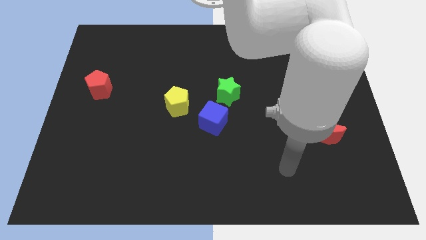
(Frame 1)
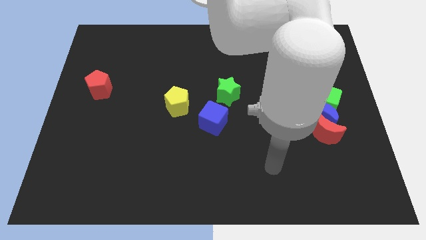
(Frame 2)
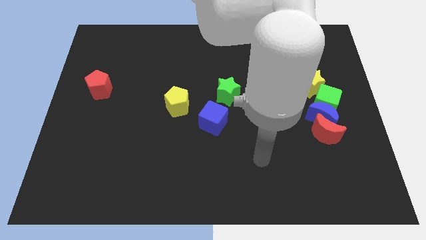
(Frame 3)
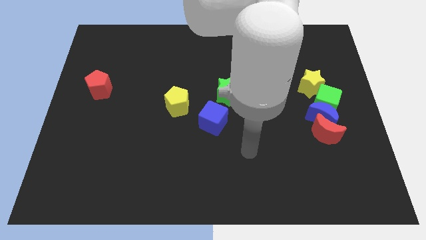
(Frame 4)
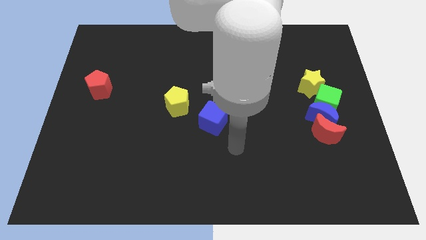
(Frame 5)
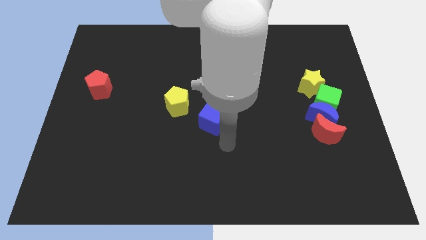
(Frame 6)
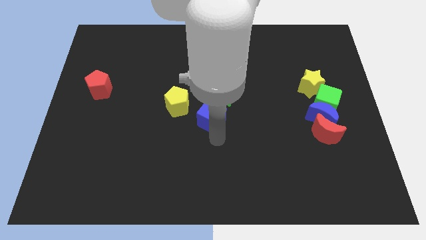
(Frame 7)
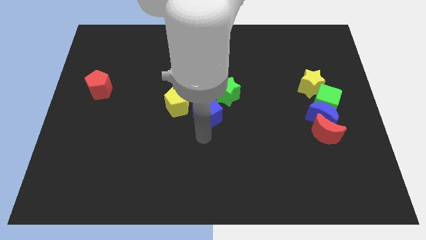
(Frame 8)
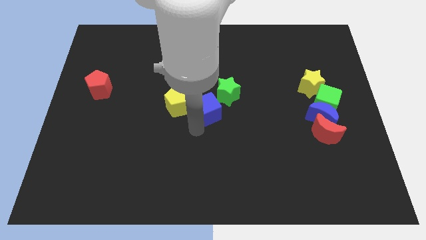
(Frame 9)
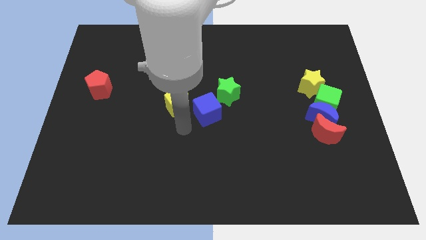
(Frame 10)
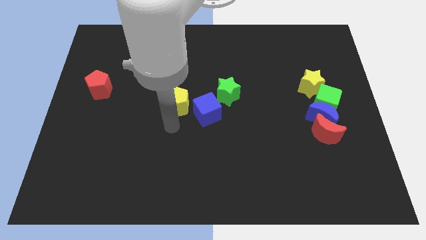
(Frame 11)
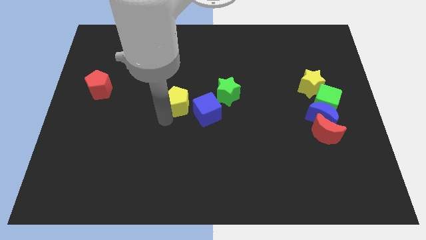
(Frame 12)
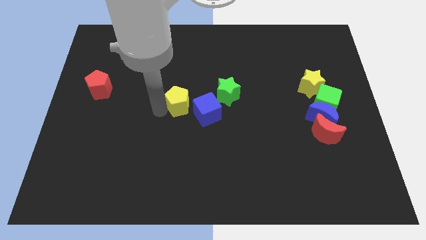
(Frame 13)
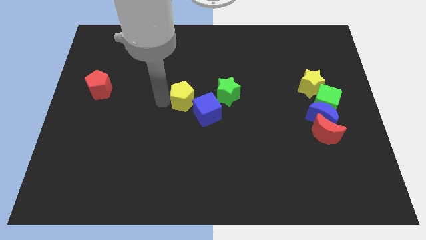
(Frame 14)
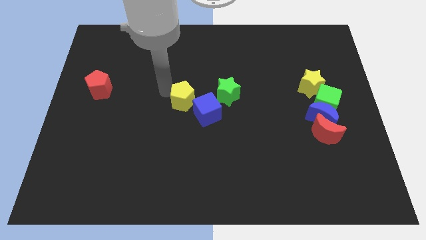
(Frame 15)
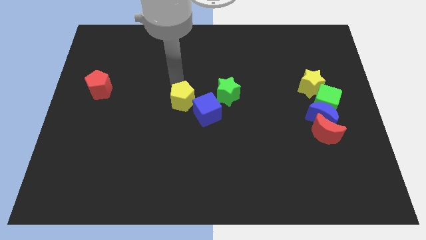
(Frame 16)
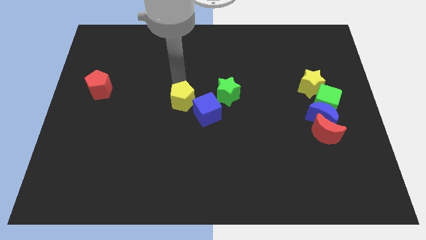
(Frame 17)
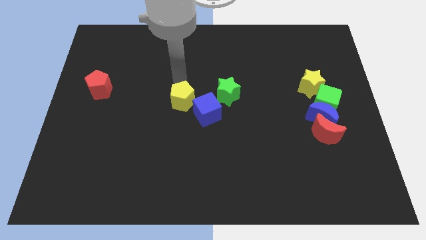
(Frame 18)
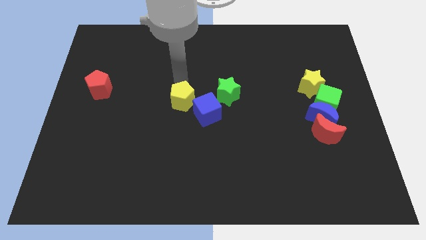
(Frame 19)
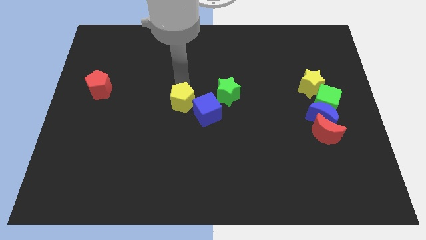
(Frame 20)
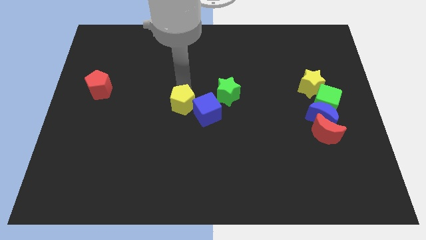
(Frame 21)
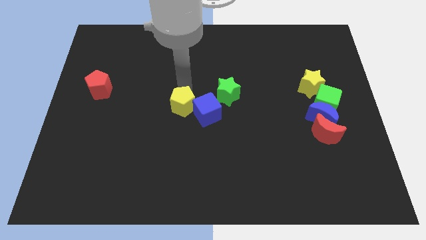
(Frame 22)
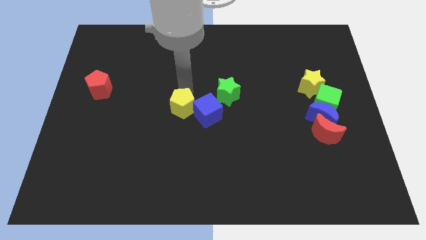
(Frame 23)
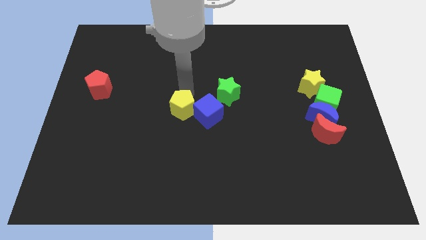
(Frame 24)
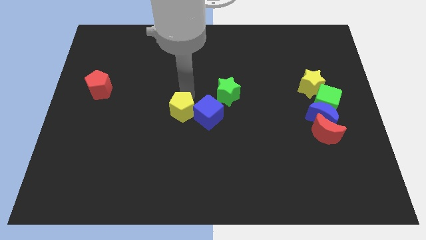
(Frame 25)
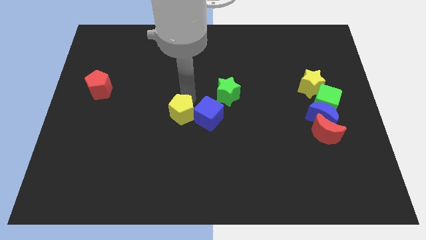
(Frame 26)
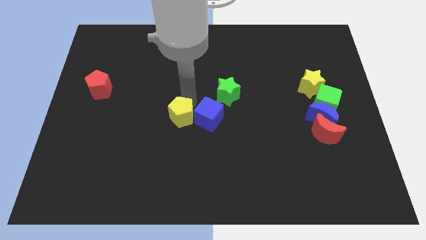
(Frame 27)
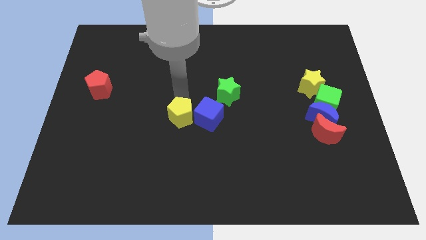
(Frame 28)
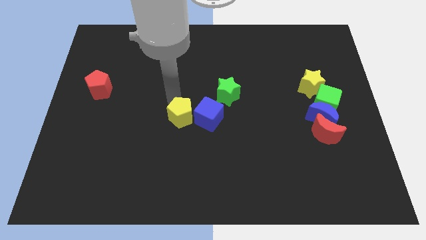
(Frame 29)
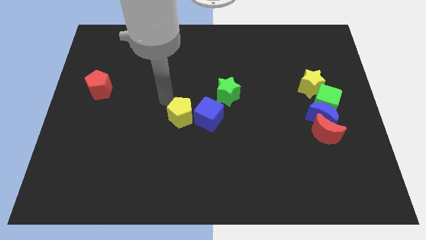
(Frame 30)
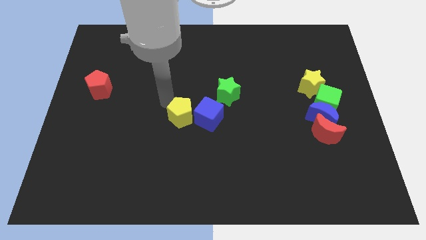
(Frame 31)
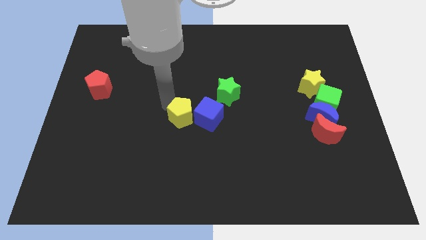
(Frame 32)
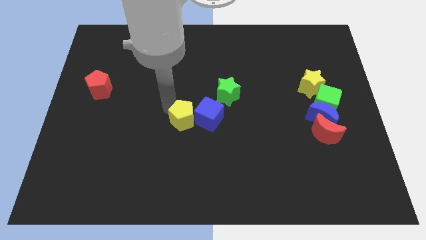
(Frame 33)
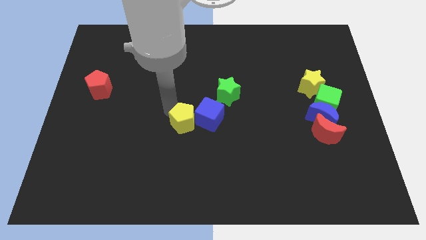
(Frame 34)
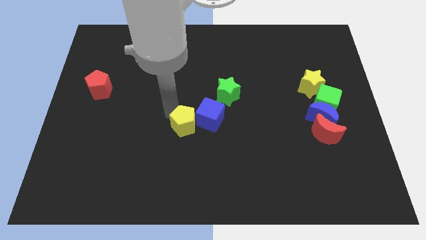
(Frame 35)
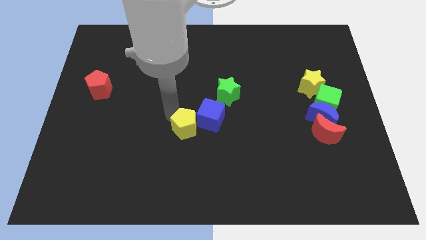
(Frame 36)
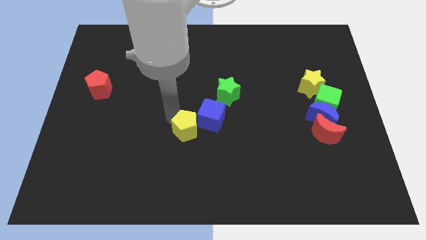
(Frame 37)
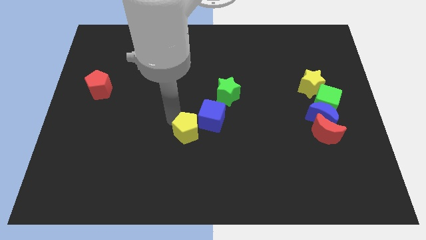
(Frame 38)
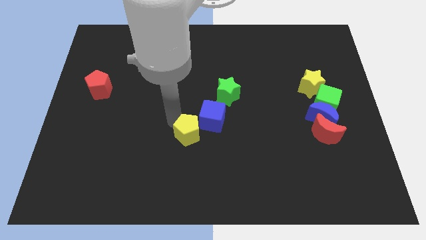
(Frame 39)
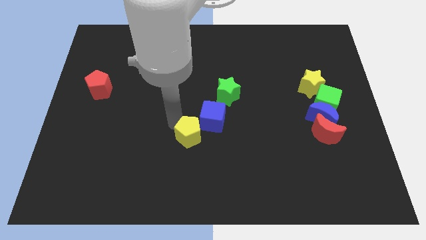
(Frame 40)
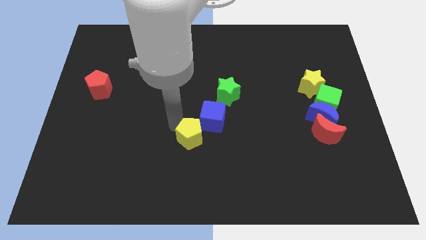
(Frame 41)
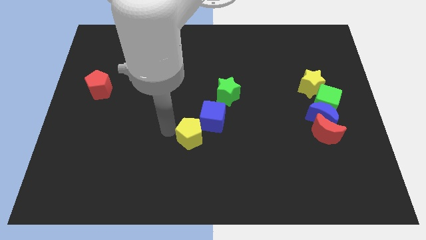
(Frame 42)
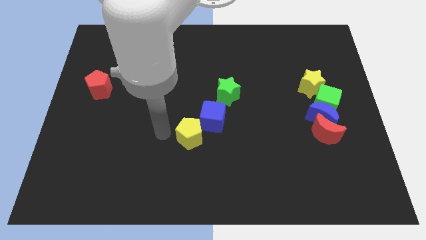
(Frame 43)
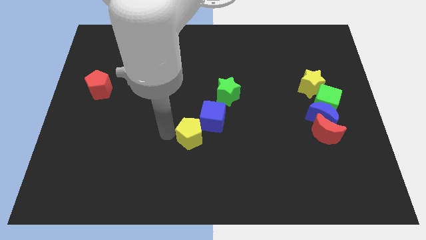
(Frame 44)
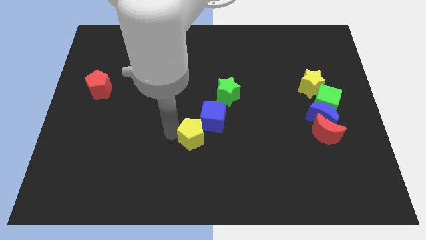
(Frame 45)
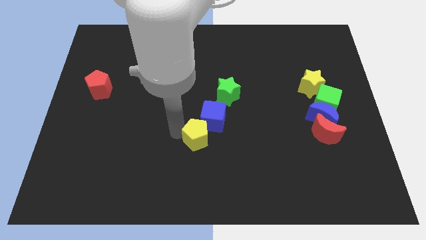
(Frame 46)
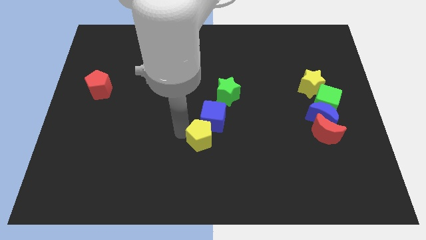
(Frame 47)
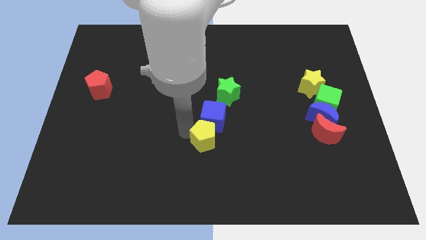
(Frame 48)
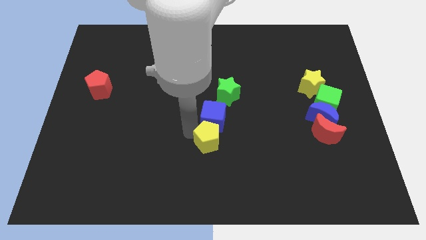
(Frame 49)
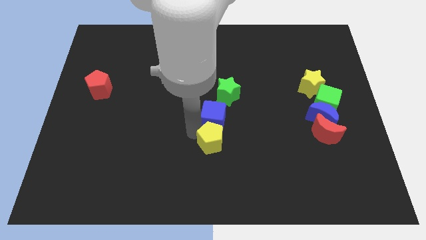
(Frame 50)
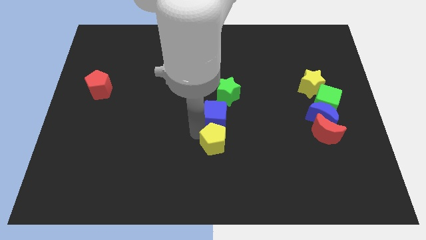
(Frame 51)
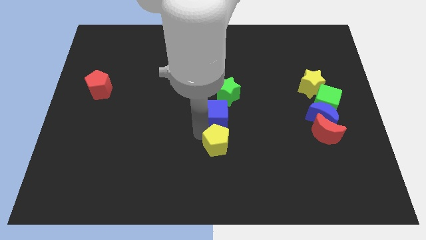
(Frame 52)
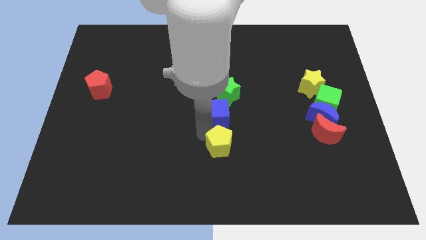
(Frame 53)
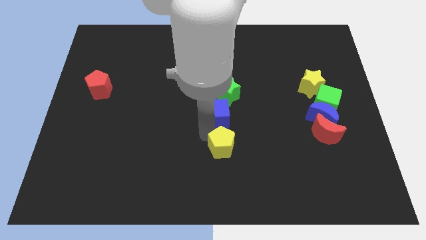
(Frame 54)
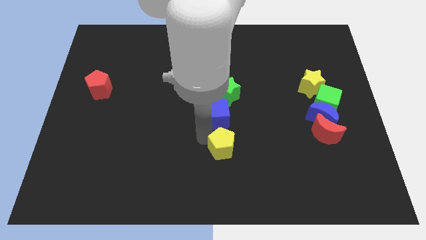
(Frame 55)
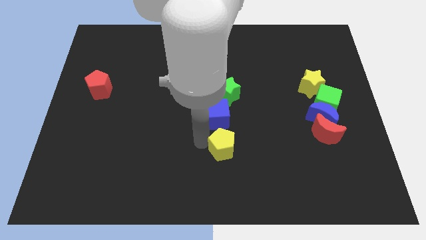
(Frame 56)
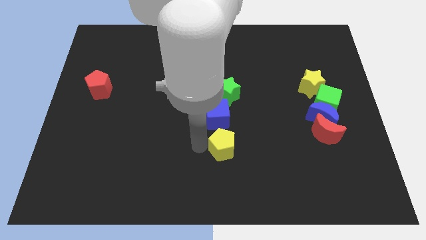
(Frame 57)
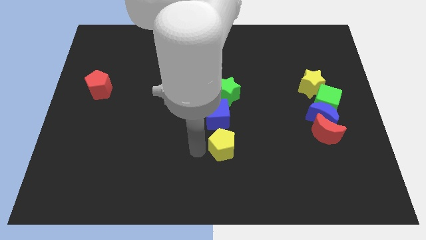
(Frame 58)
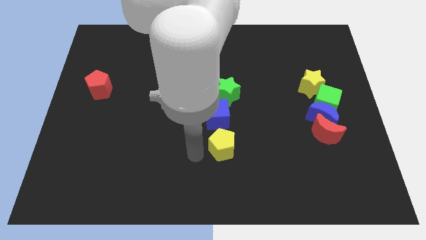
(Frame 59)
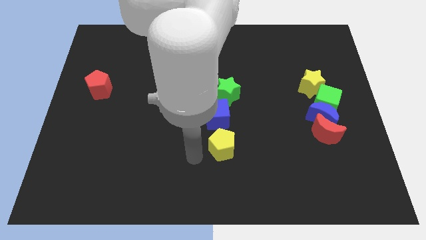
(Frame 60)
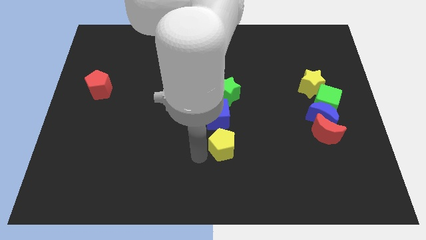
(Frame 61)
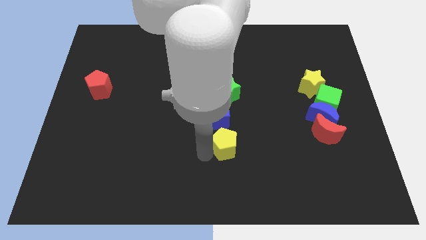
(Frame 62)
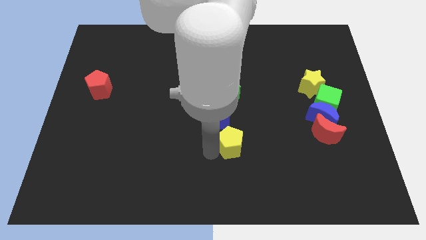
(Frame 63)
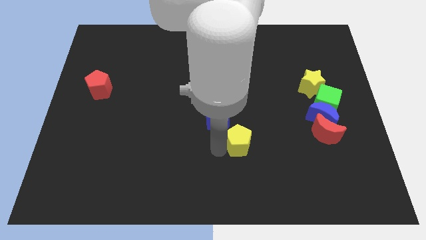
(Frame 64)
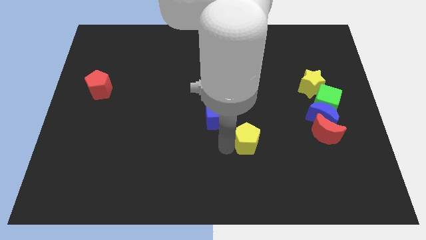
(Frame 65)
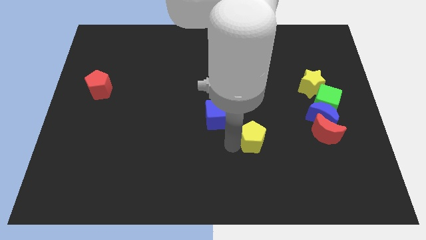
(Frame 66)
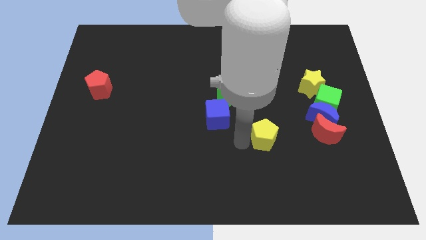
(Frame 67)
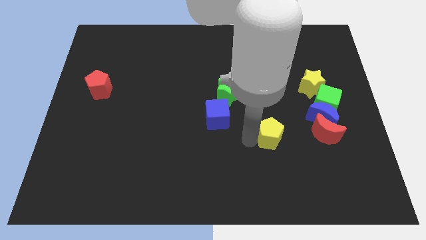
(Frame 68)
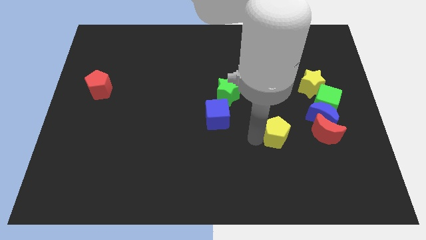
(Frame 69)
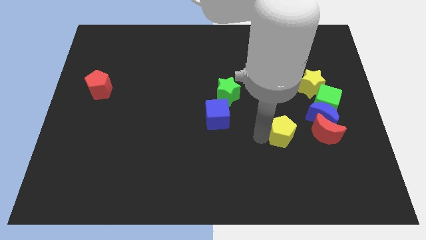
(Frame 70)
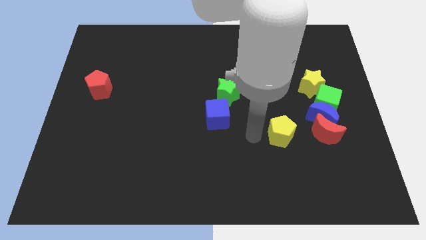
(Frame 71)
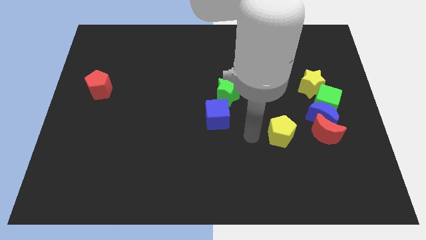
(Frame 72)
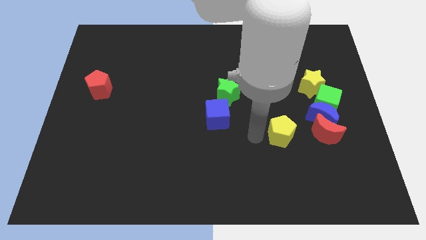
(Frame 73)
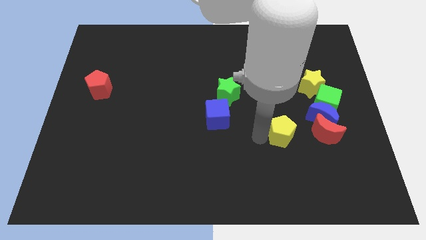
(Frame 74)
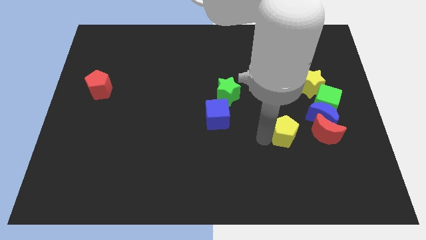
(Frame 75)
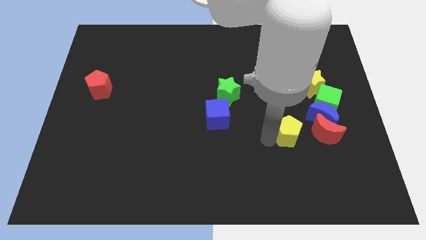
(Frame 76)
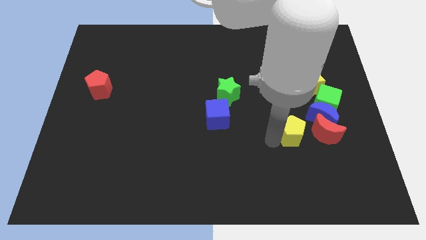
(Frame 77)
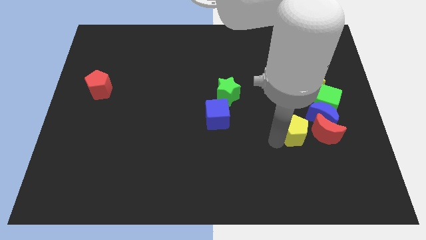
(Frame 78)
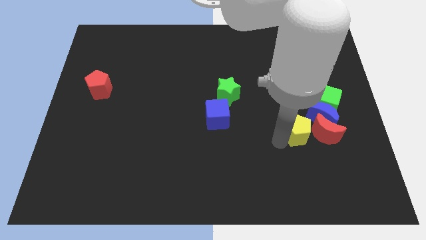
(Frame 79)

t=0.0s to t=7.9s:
slide the yellow pentagon next to the red moon
